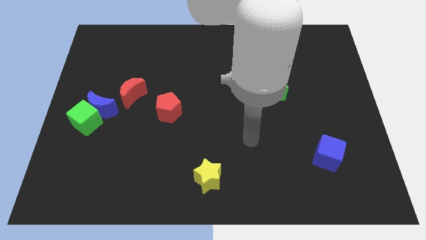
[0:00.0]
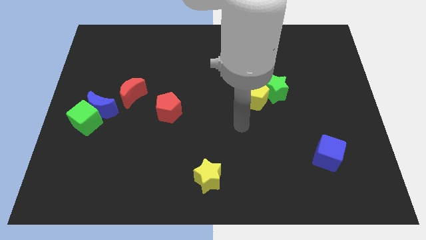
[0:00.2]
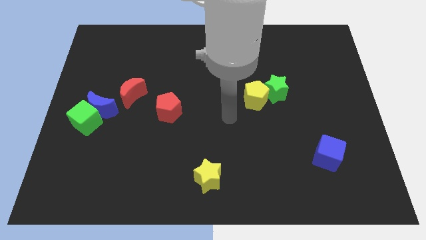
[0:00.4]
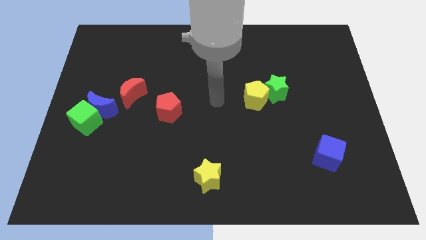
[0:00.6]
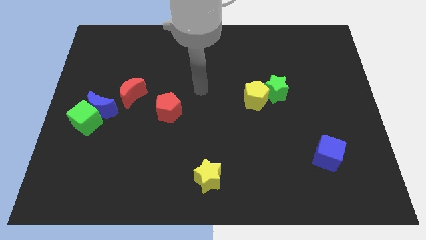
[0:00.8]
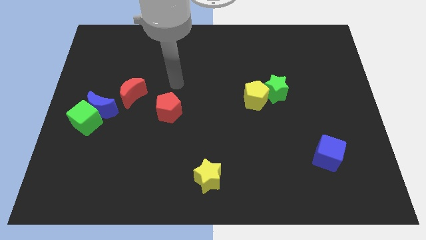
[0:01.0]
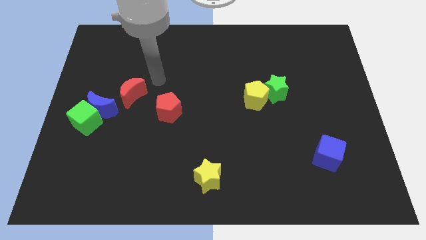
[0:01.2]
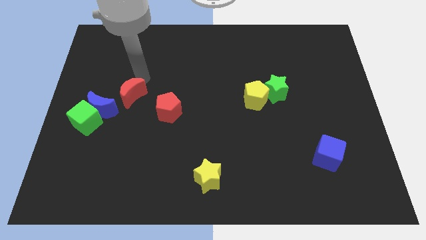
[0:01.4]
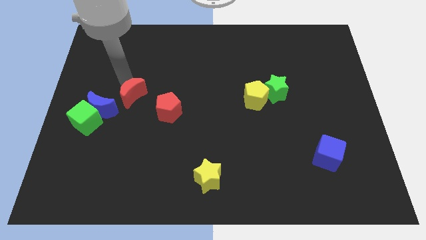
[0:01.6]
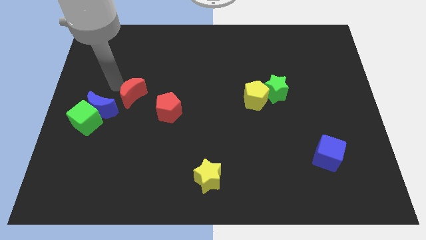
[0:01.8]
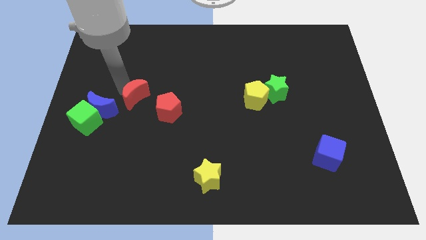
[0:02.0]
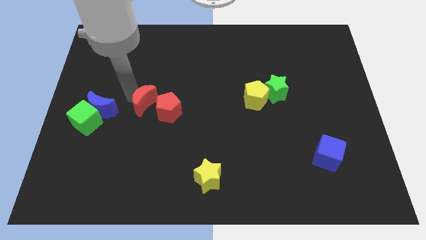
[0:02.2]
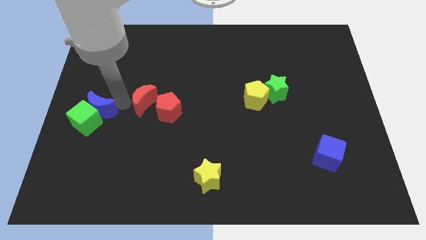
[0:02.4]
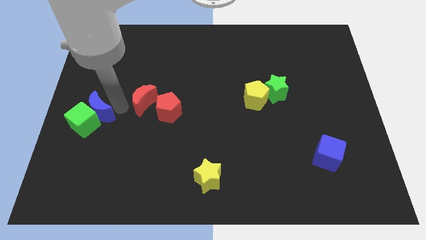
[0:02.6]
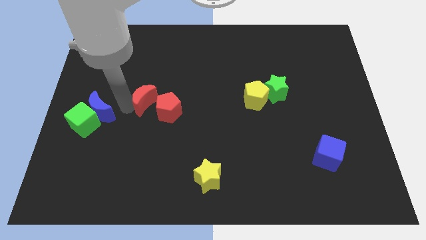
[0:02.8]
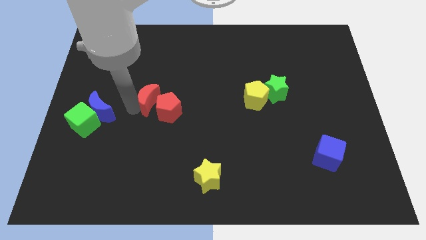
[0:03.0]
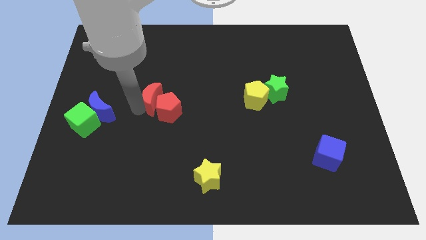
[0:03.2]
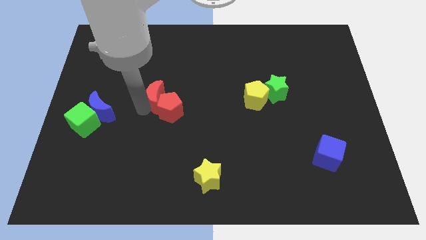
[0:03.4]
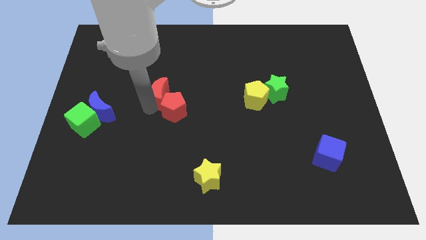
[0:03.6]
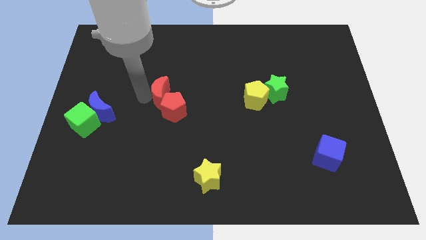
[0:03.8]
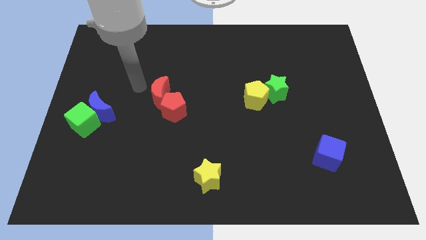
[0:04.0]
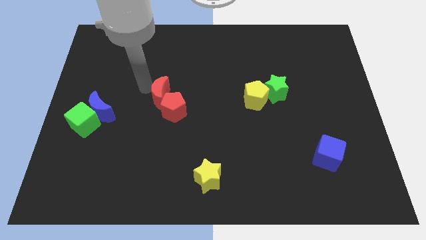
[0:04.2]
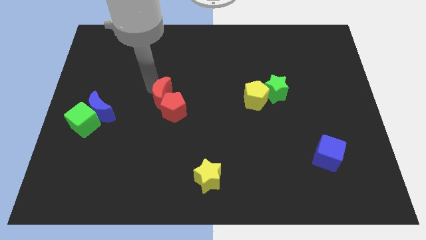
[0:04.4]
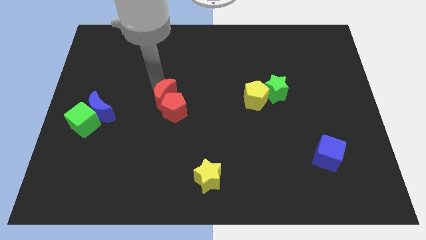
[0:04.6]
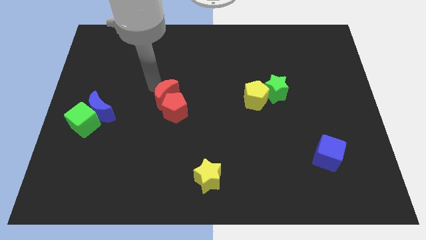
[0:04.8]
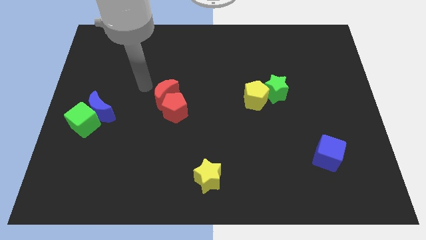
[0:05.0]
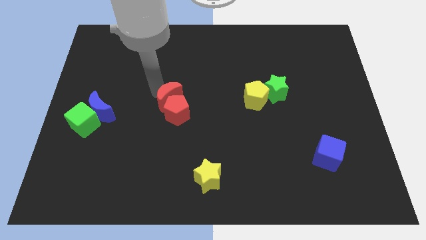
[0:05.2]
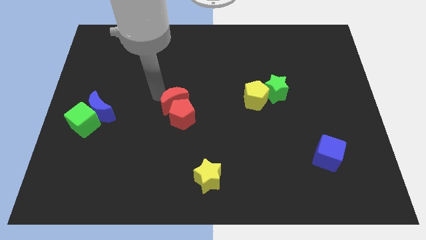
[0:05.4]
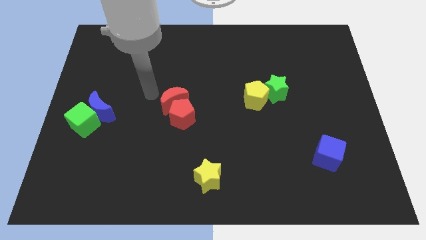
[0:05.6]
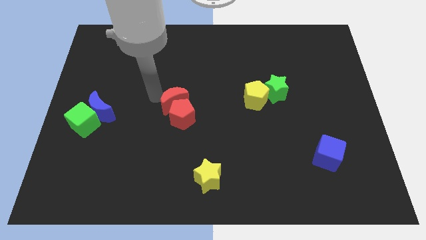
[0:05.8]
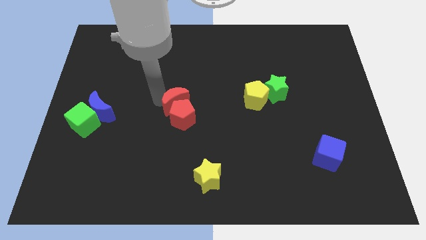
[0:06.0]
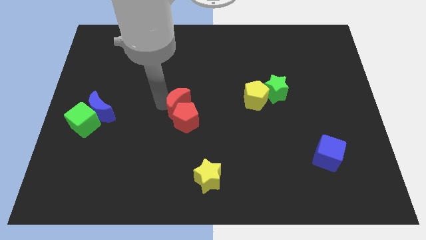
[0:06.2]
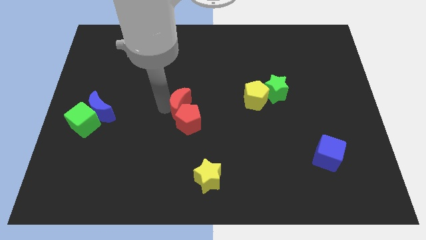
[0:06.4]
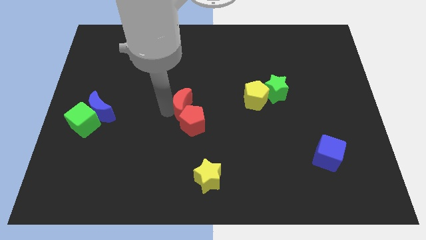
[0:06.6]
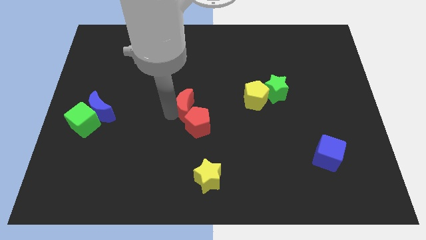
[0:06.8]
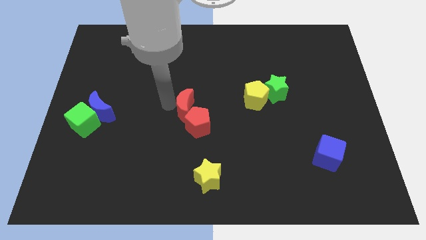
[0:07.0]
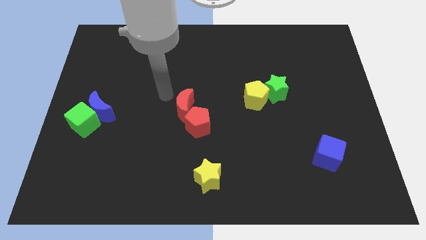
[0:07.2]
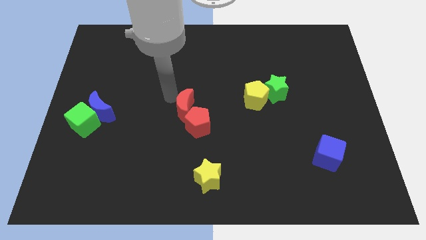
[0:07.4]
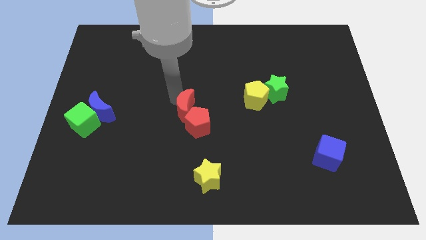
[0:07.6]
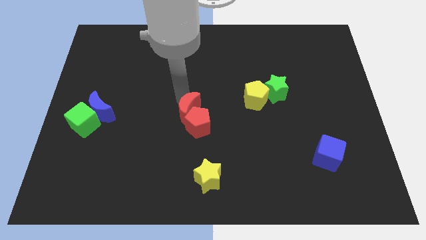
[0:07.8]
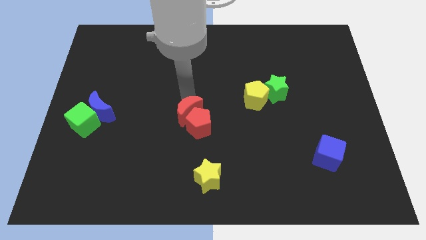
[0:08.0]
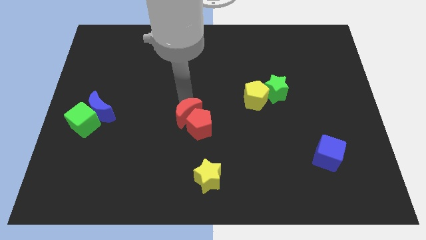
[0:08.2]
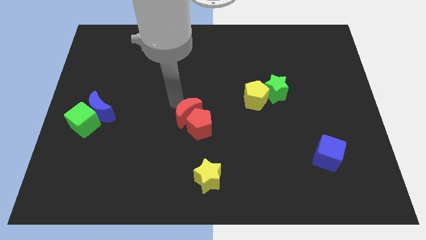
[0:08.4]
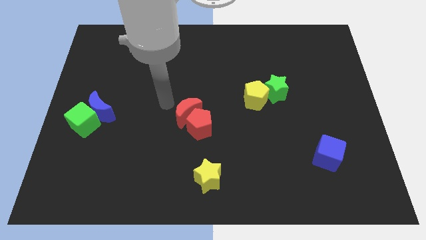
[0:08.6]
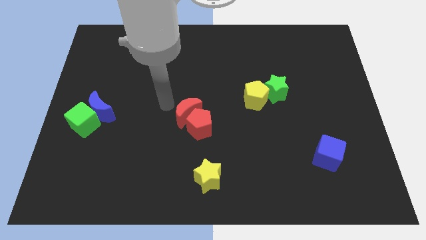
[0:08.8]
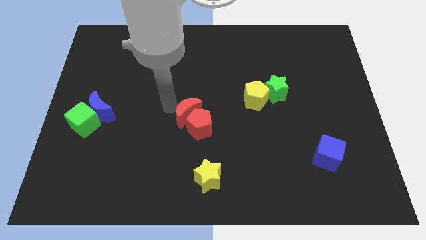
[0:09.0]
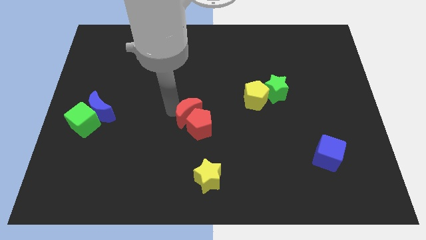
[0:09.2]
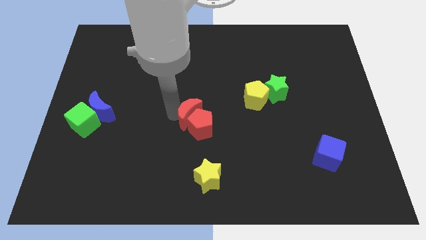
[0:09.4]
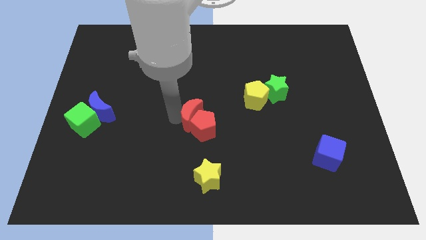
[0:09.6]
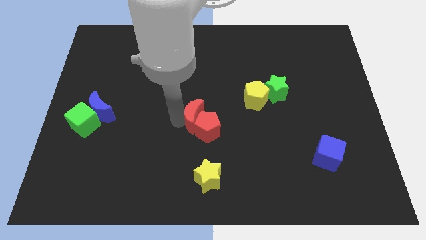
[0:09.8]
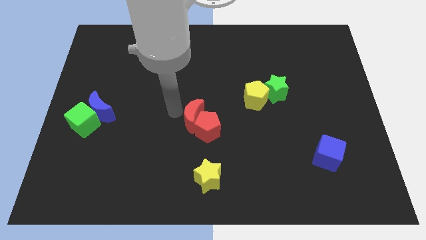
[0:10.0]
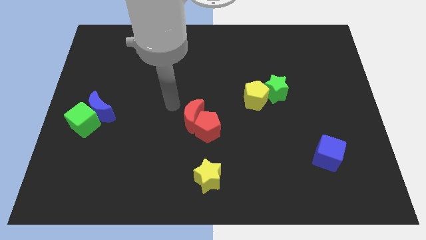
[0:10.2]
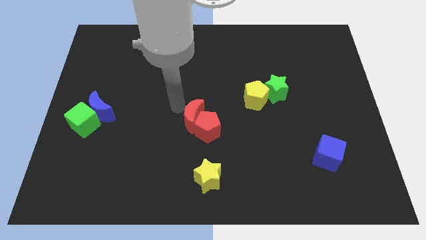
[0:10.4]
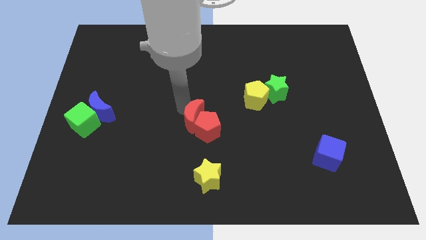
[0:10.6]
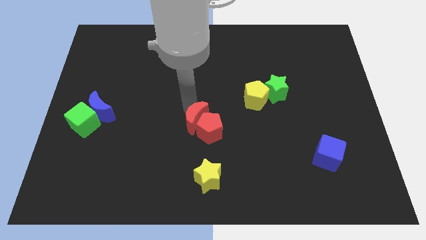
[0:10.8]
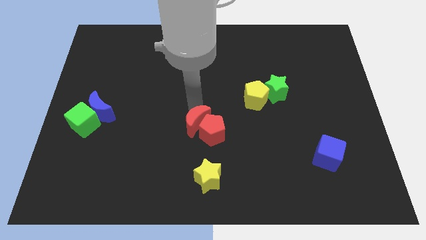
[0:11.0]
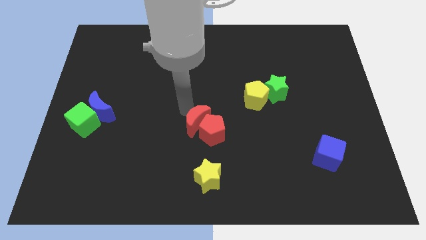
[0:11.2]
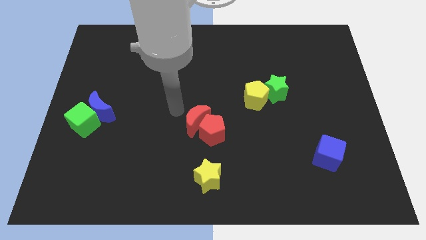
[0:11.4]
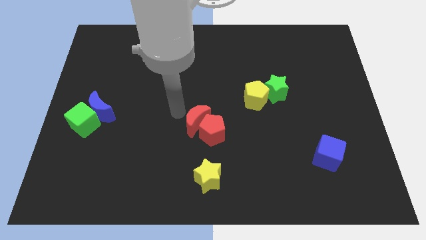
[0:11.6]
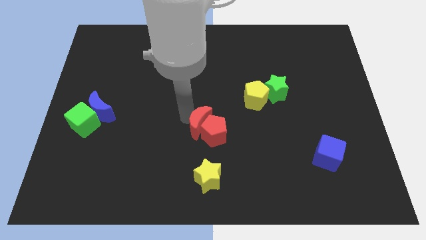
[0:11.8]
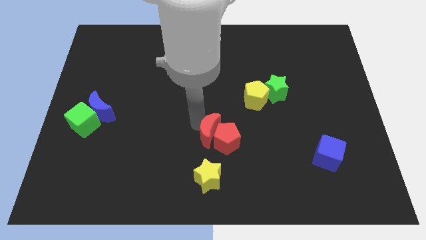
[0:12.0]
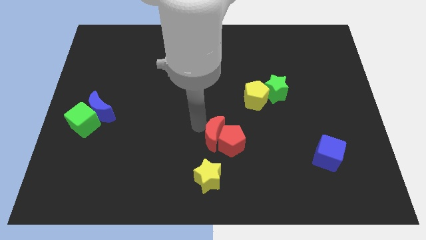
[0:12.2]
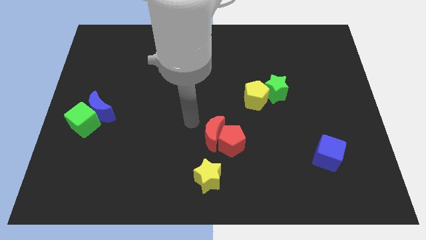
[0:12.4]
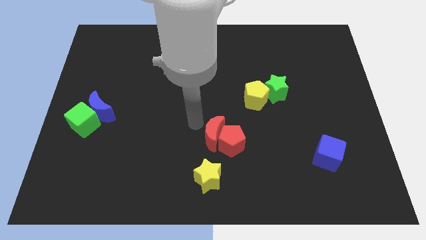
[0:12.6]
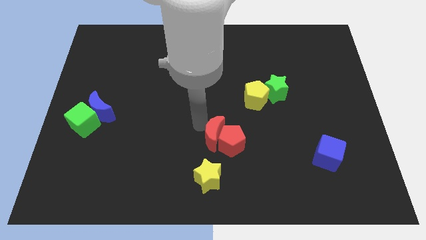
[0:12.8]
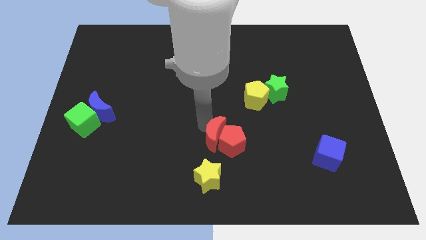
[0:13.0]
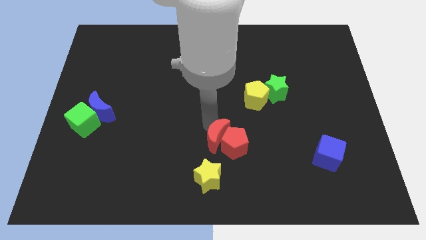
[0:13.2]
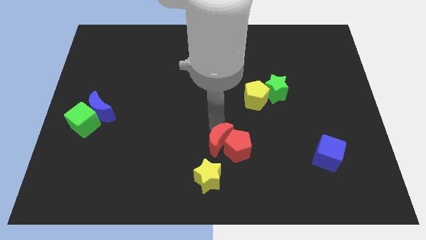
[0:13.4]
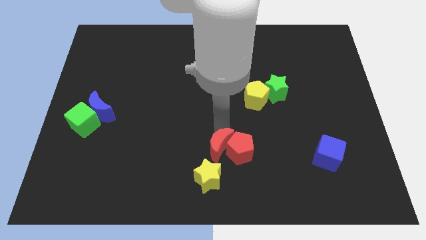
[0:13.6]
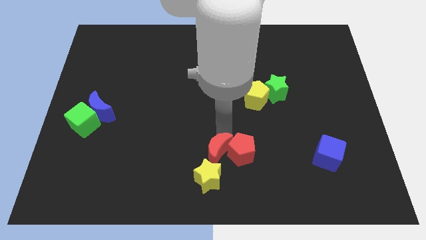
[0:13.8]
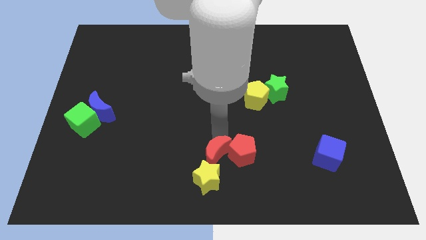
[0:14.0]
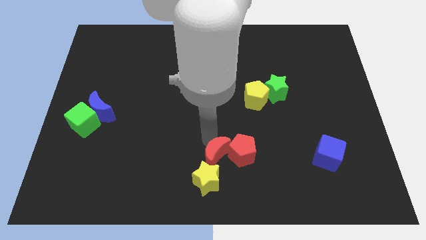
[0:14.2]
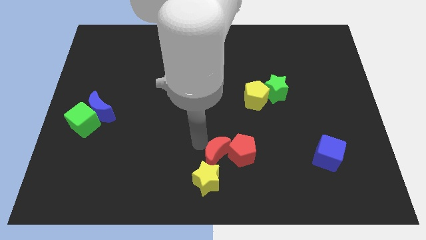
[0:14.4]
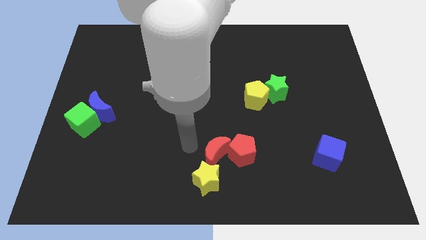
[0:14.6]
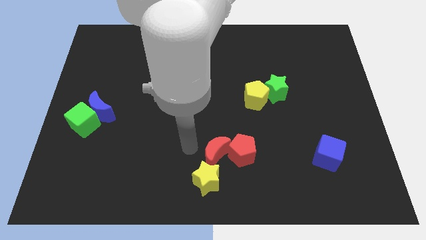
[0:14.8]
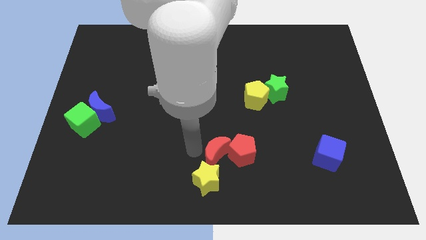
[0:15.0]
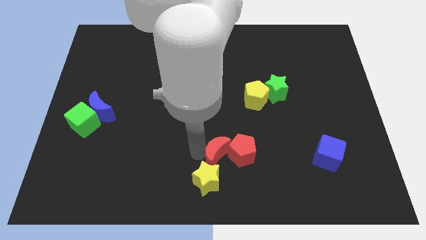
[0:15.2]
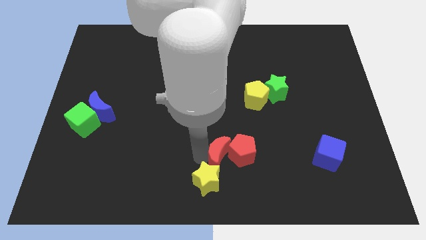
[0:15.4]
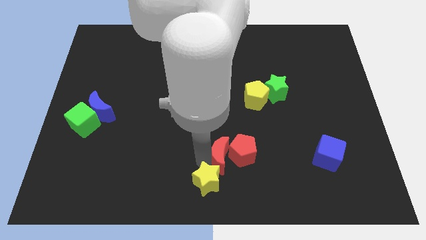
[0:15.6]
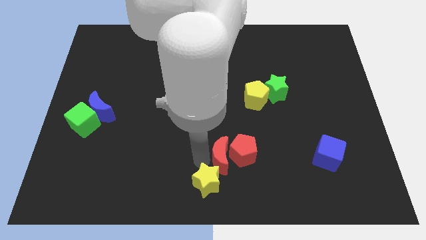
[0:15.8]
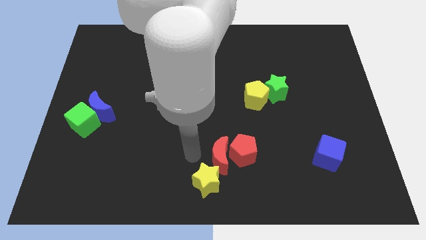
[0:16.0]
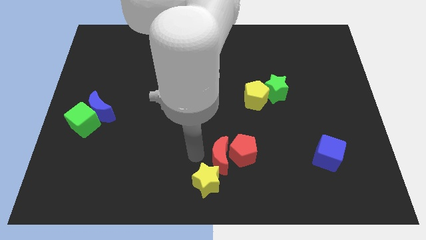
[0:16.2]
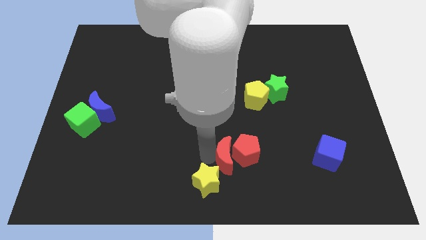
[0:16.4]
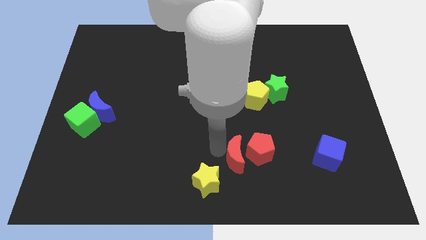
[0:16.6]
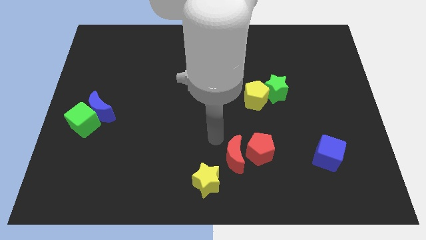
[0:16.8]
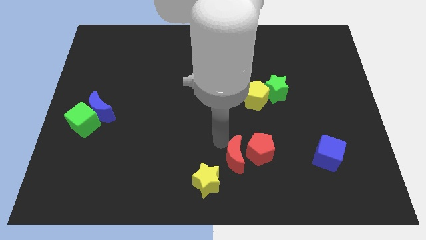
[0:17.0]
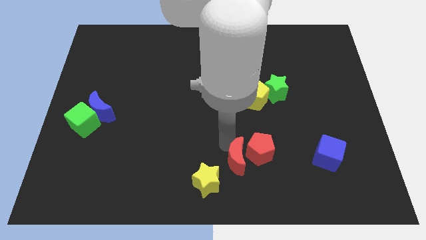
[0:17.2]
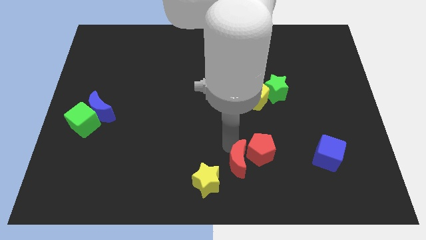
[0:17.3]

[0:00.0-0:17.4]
put the red moon just right of the yellow star
